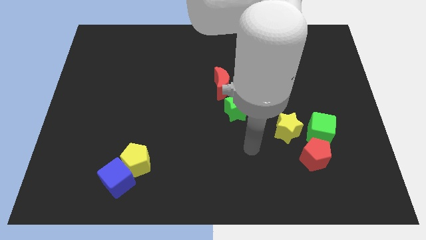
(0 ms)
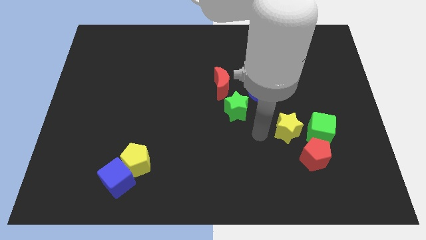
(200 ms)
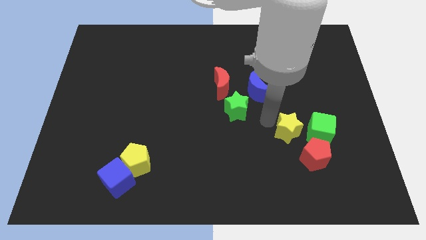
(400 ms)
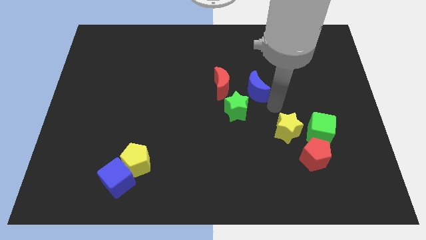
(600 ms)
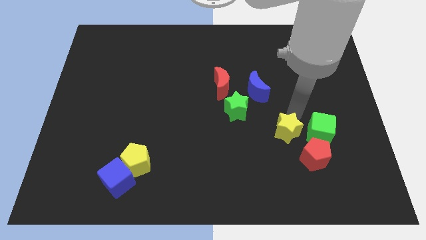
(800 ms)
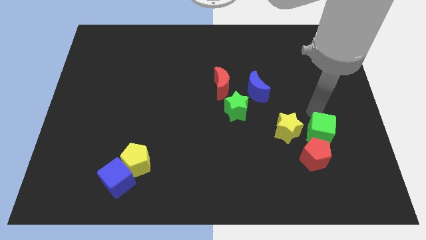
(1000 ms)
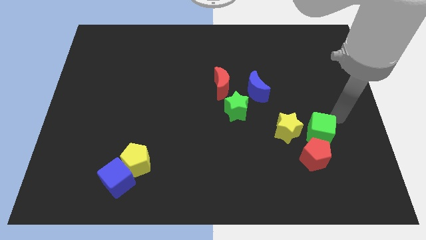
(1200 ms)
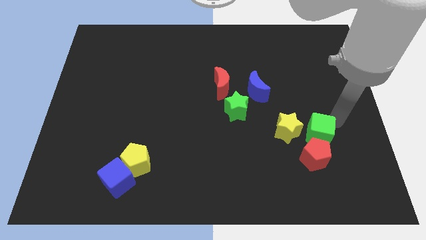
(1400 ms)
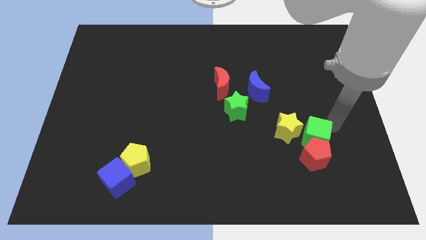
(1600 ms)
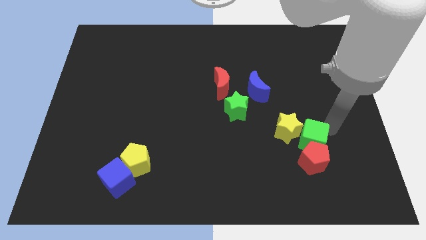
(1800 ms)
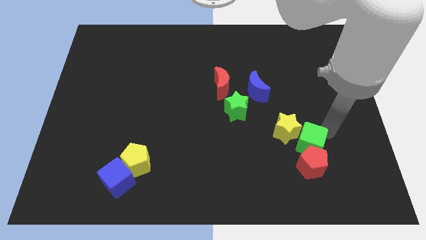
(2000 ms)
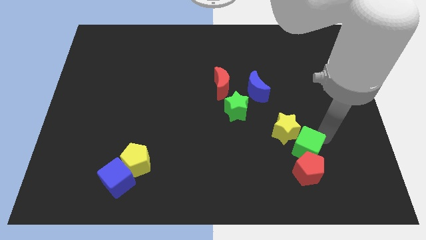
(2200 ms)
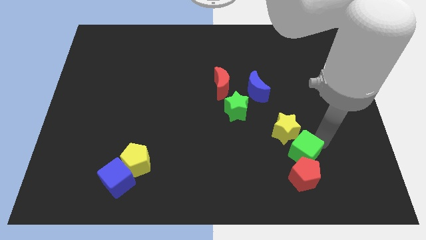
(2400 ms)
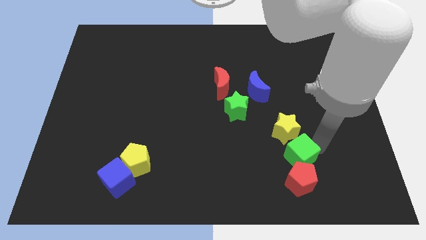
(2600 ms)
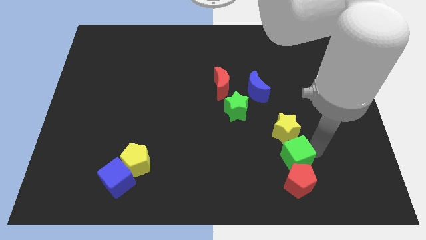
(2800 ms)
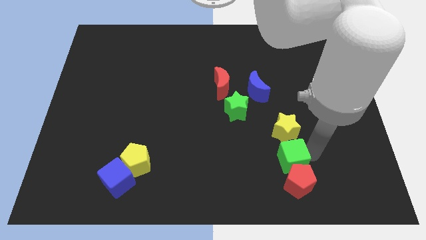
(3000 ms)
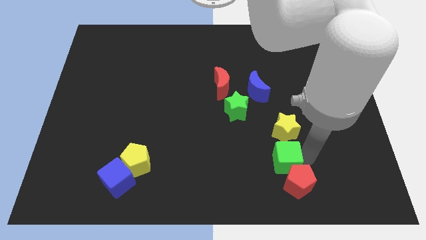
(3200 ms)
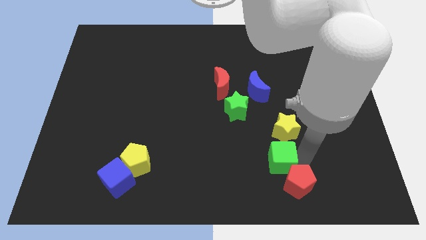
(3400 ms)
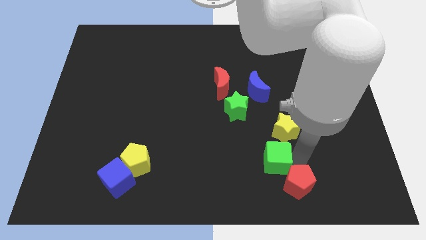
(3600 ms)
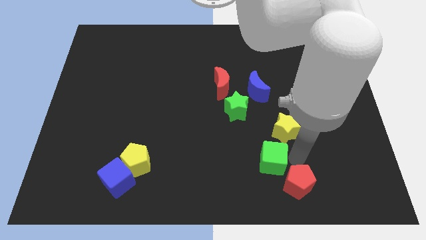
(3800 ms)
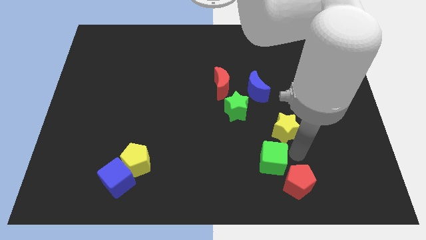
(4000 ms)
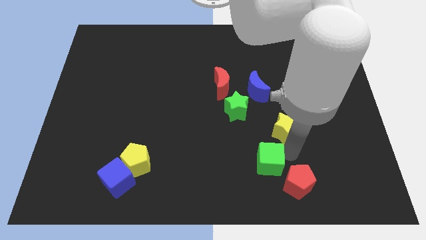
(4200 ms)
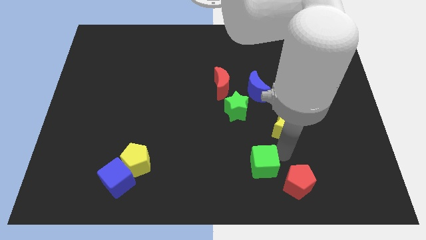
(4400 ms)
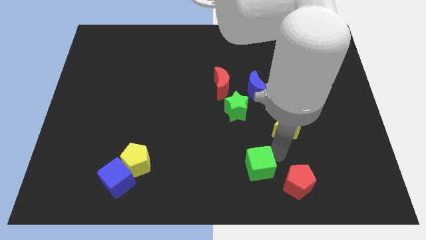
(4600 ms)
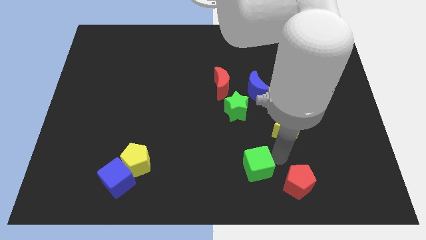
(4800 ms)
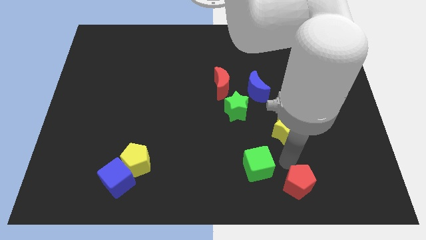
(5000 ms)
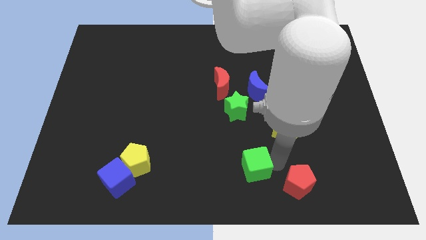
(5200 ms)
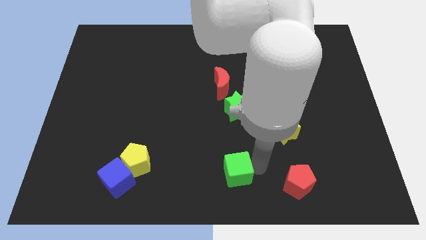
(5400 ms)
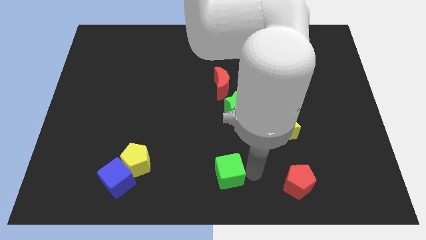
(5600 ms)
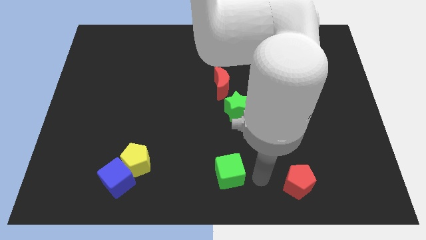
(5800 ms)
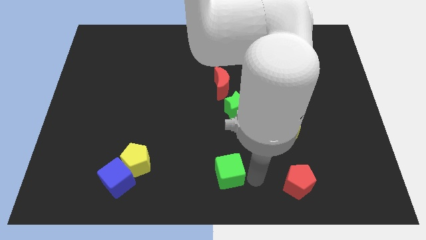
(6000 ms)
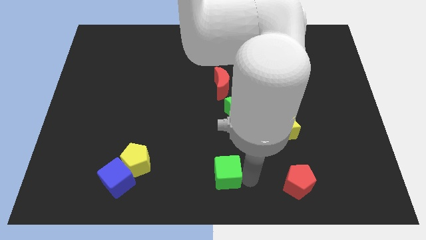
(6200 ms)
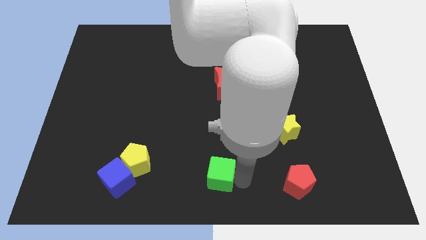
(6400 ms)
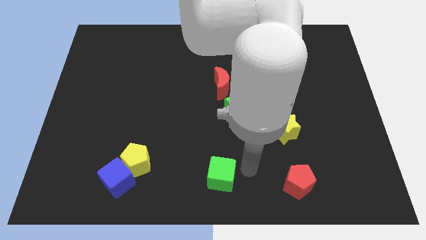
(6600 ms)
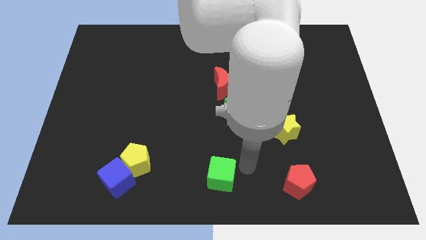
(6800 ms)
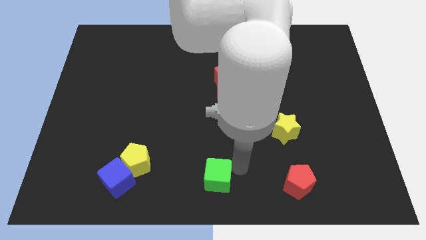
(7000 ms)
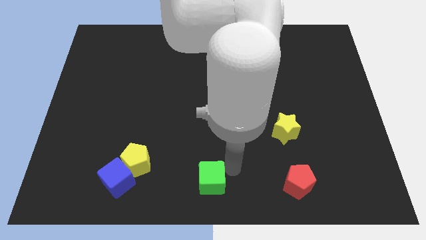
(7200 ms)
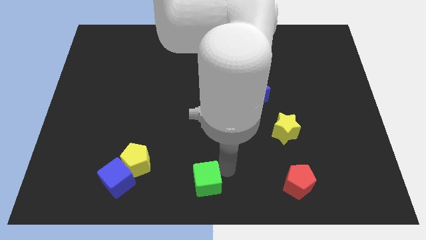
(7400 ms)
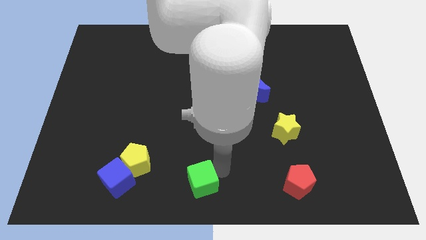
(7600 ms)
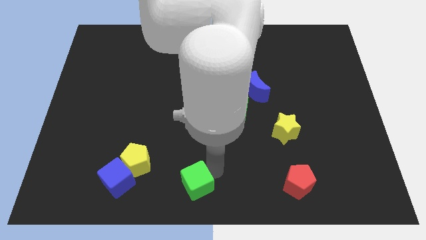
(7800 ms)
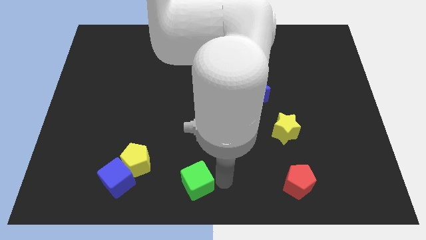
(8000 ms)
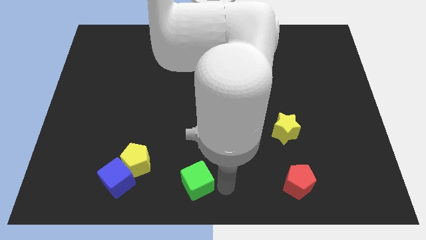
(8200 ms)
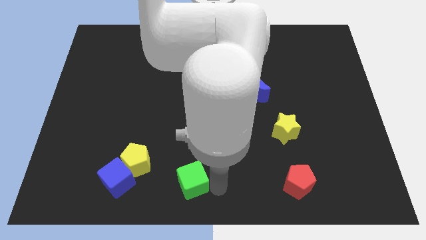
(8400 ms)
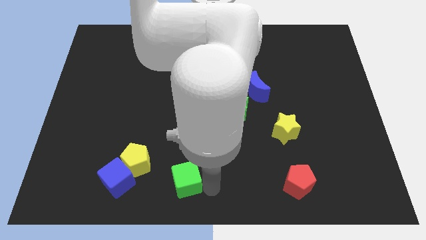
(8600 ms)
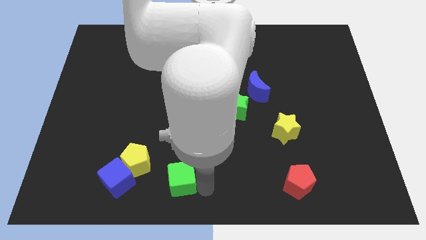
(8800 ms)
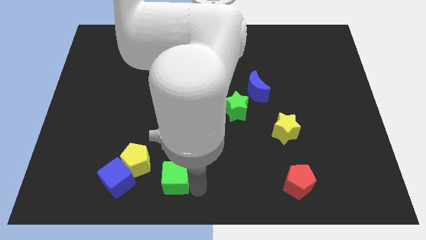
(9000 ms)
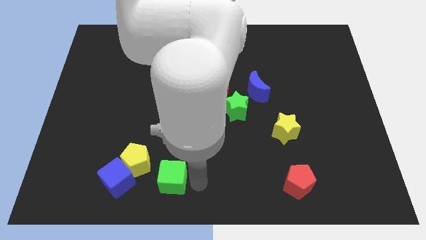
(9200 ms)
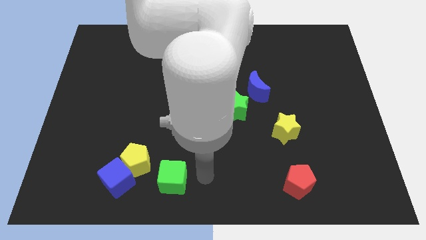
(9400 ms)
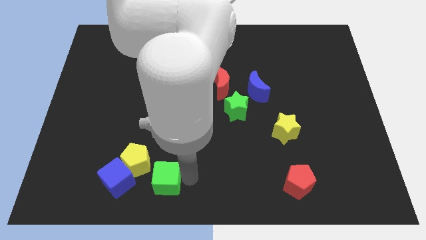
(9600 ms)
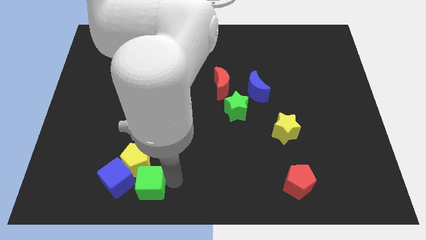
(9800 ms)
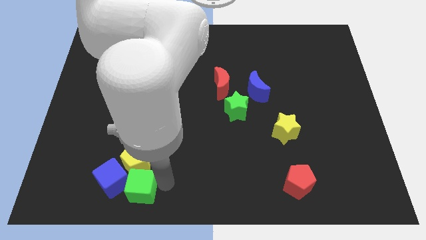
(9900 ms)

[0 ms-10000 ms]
push the green cube next to the blue cube

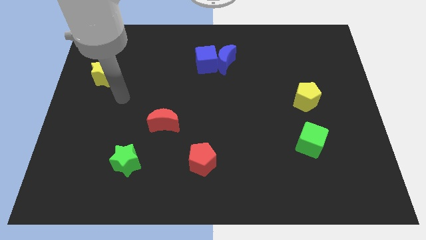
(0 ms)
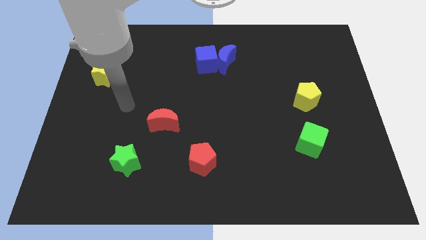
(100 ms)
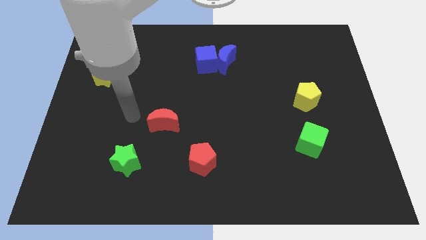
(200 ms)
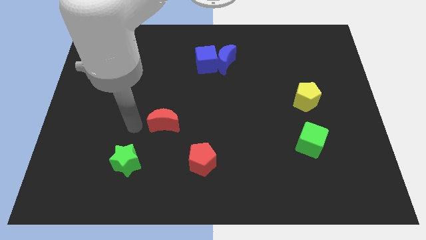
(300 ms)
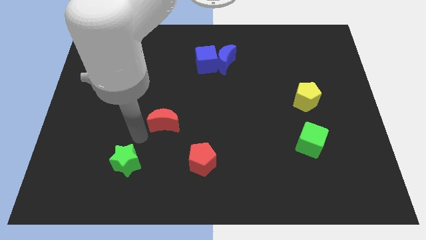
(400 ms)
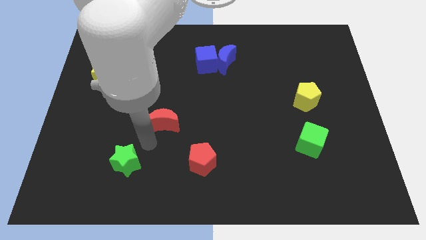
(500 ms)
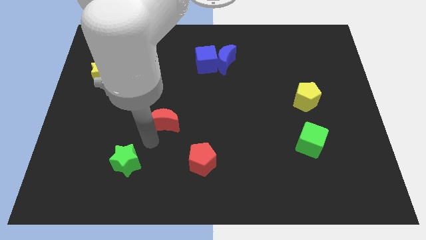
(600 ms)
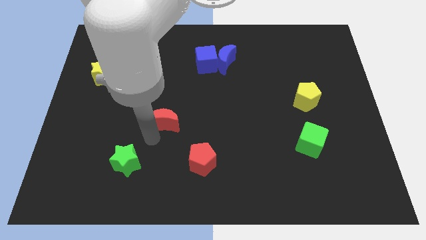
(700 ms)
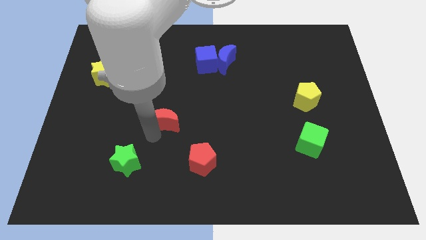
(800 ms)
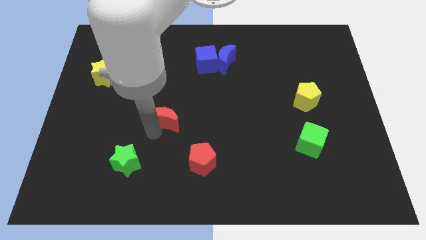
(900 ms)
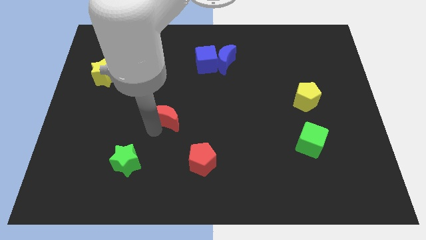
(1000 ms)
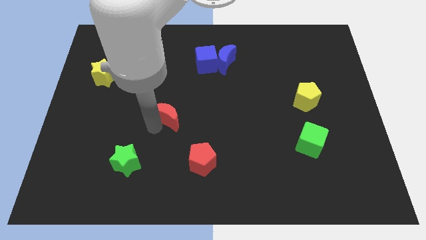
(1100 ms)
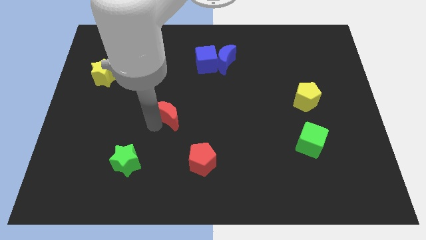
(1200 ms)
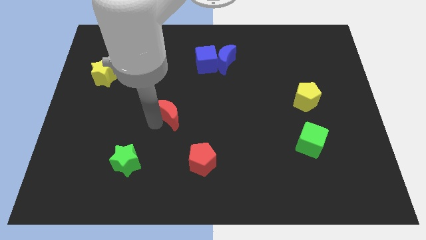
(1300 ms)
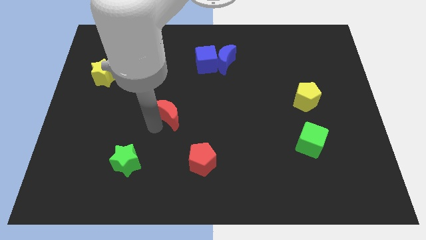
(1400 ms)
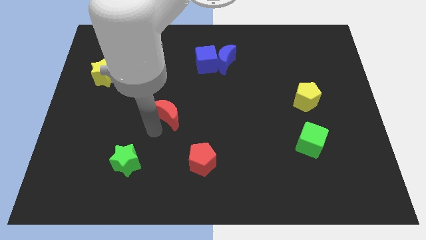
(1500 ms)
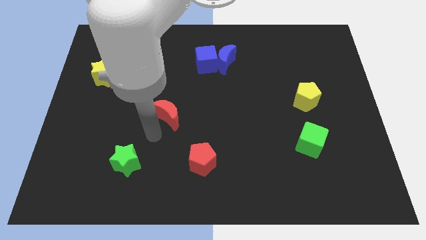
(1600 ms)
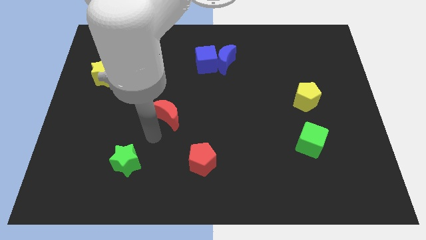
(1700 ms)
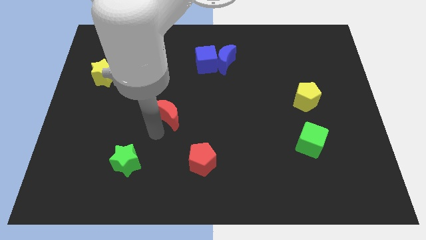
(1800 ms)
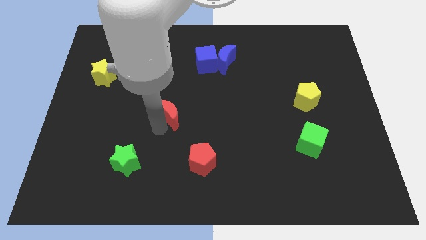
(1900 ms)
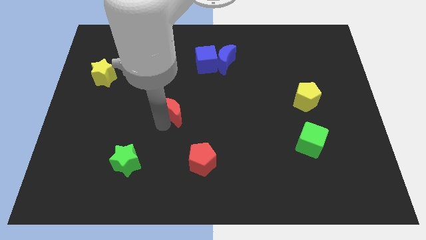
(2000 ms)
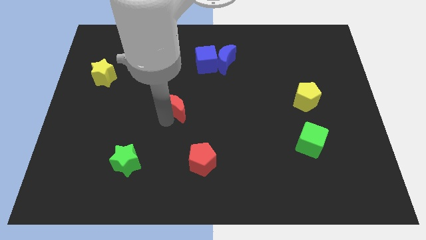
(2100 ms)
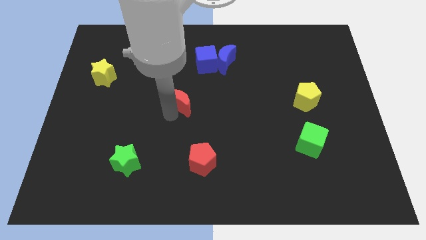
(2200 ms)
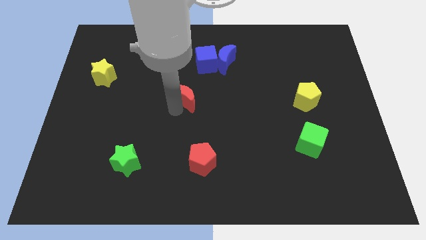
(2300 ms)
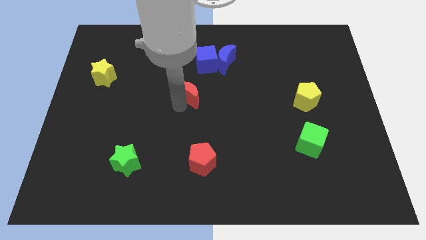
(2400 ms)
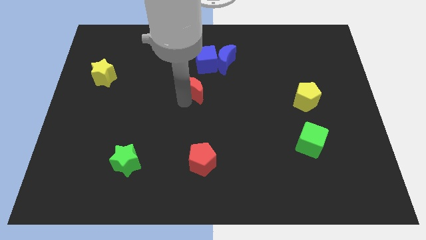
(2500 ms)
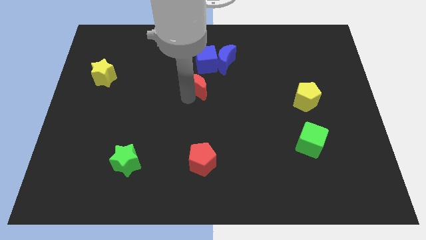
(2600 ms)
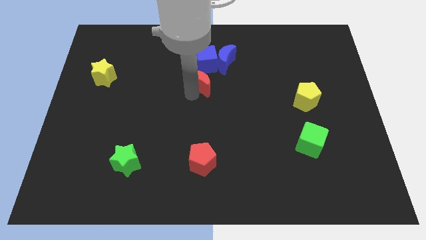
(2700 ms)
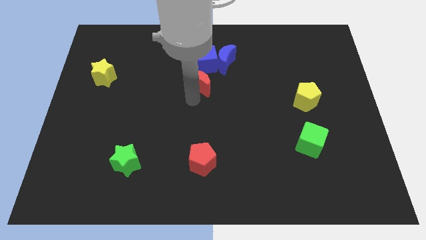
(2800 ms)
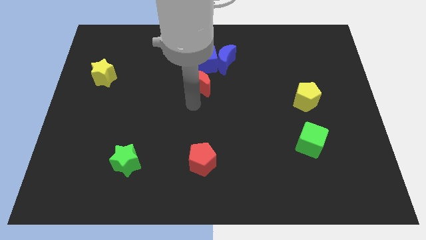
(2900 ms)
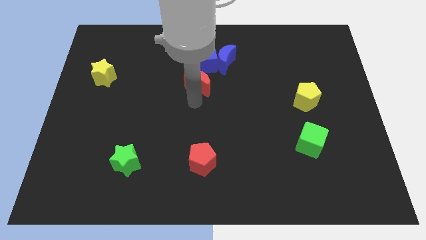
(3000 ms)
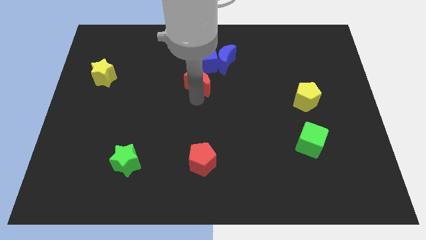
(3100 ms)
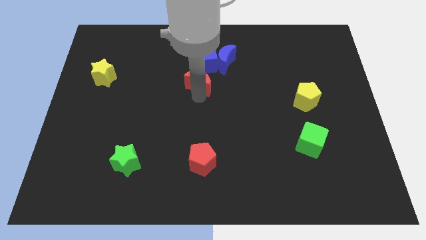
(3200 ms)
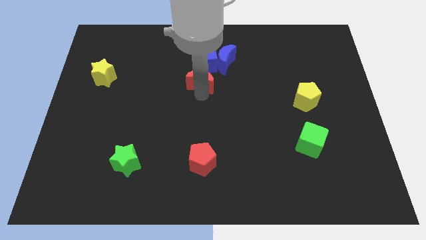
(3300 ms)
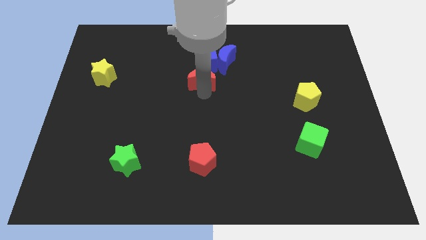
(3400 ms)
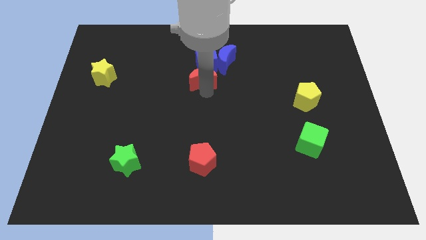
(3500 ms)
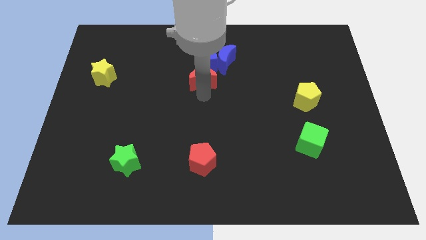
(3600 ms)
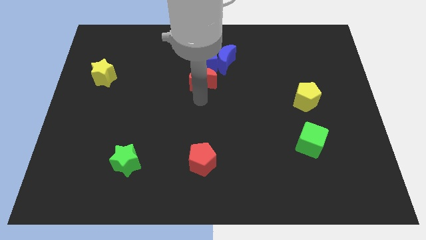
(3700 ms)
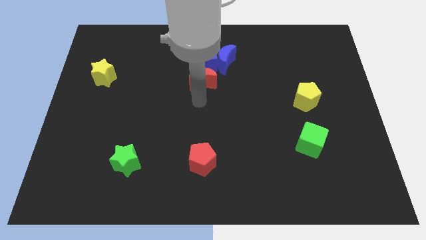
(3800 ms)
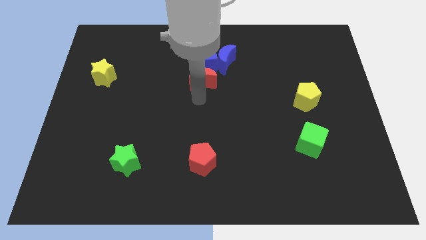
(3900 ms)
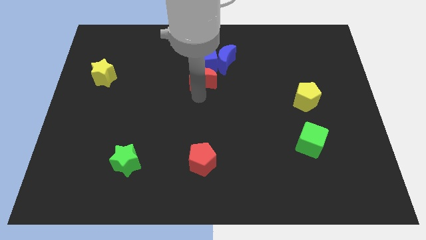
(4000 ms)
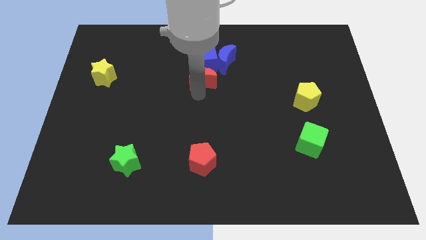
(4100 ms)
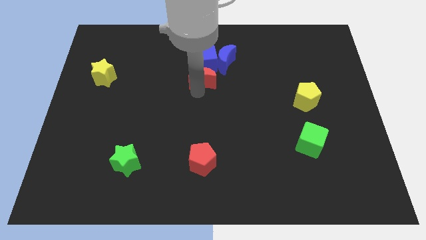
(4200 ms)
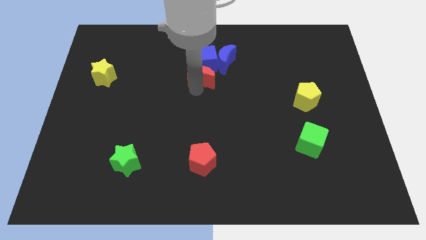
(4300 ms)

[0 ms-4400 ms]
slide the red moon towards the blue cube
